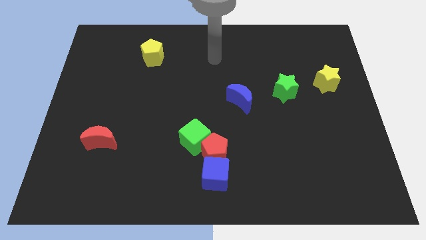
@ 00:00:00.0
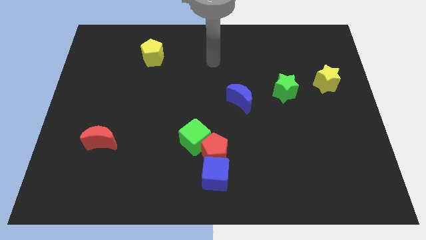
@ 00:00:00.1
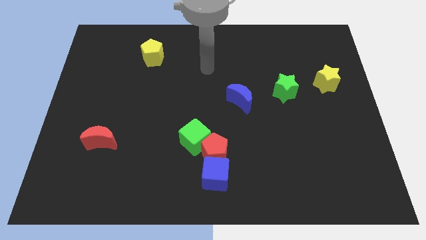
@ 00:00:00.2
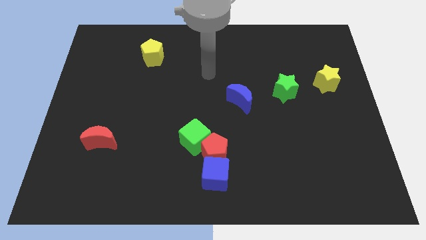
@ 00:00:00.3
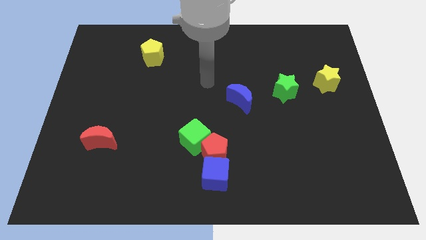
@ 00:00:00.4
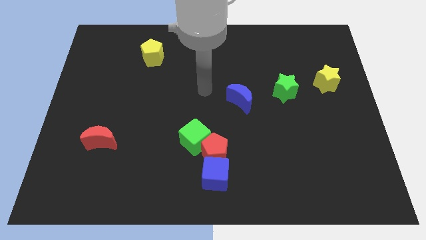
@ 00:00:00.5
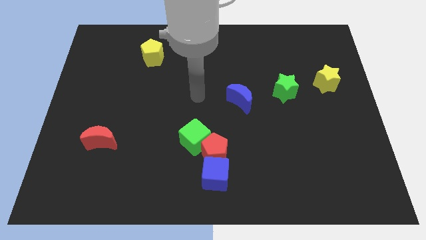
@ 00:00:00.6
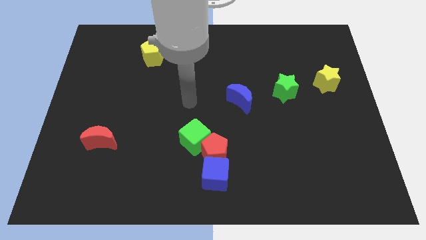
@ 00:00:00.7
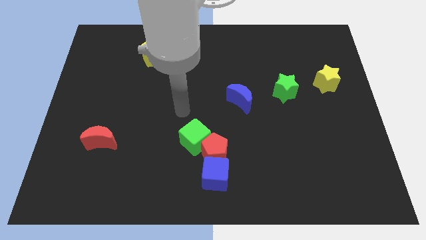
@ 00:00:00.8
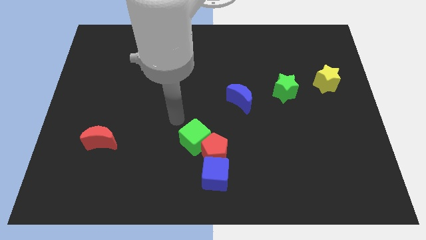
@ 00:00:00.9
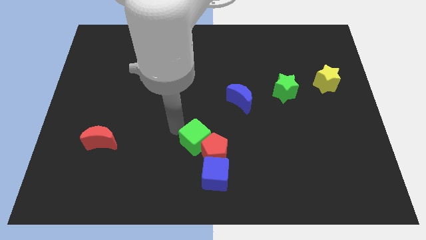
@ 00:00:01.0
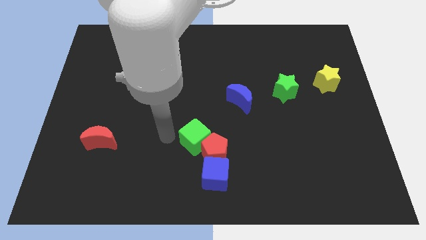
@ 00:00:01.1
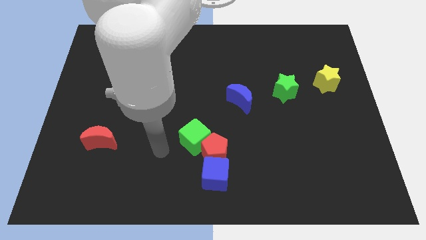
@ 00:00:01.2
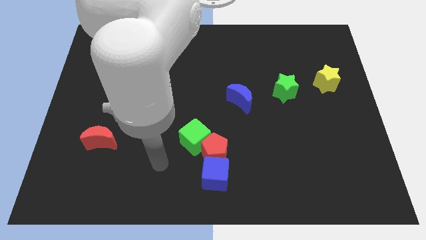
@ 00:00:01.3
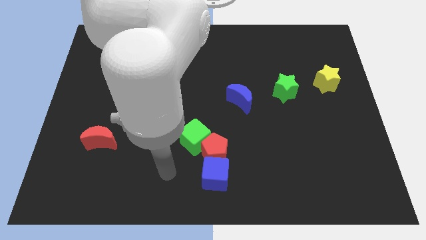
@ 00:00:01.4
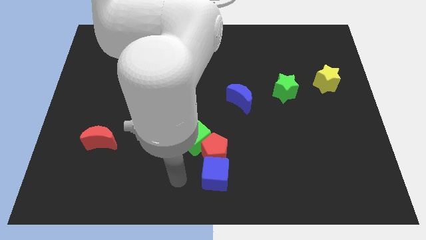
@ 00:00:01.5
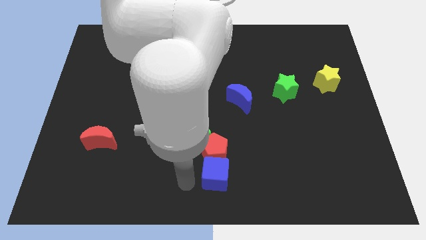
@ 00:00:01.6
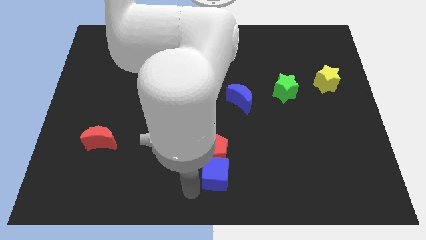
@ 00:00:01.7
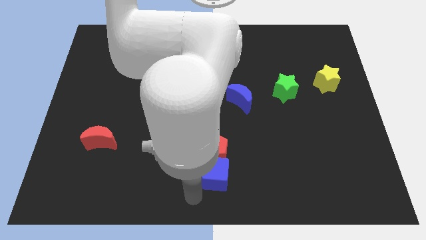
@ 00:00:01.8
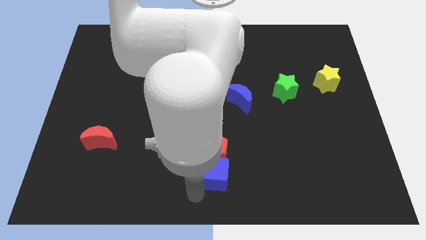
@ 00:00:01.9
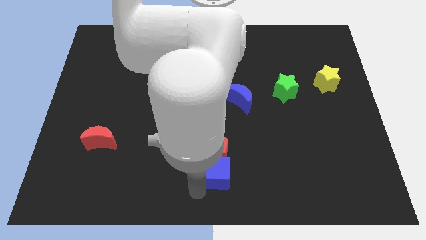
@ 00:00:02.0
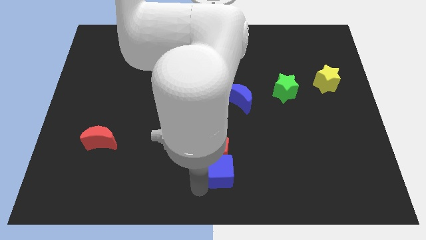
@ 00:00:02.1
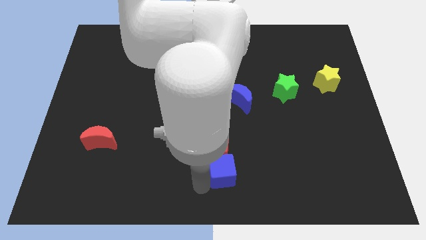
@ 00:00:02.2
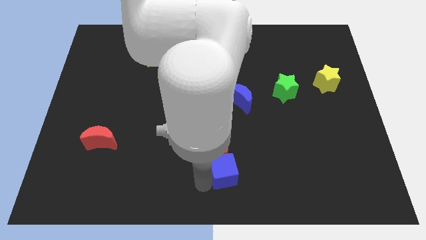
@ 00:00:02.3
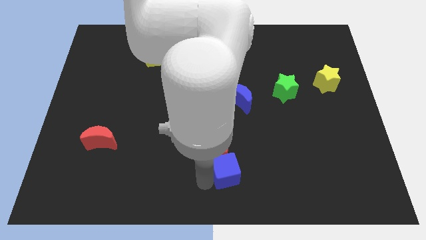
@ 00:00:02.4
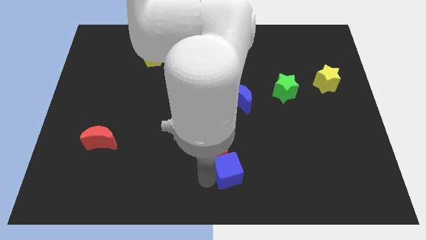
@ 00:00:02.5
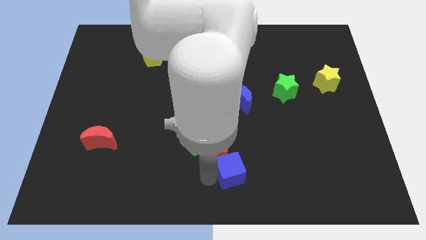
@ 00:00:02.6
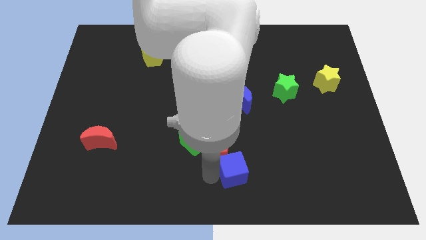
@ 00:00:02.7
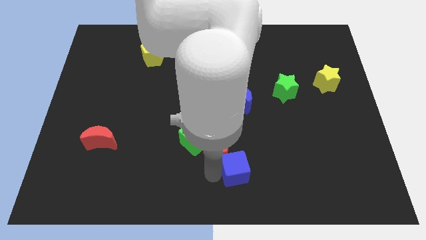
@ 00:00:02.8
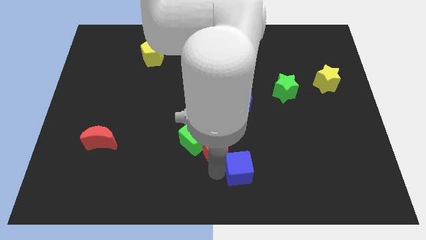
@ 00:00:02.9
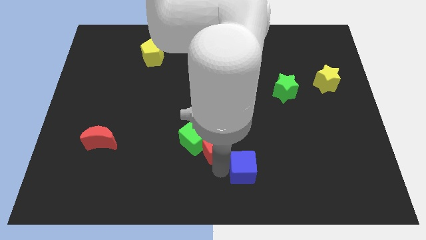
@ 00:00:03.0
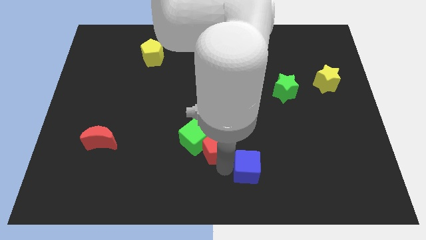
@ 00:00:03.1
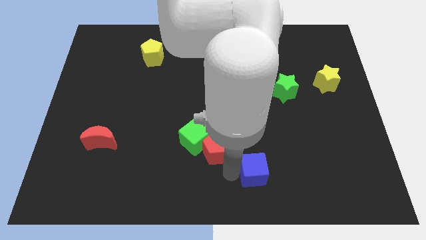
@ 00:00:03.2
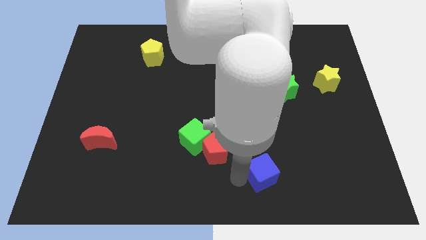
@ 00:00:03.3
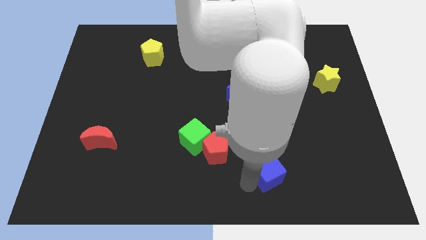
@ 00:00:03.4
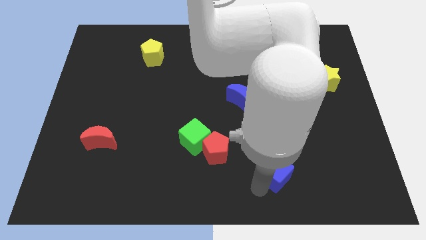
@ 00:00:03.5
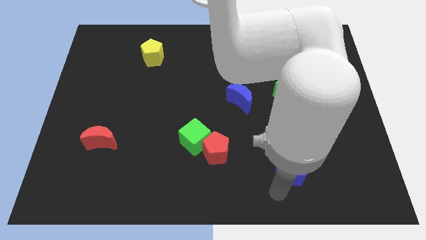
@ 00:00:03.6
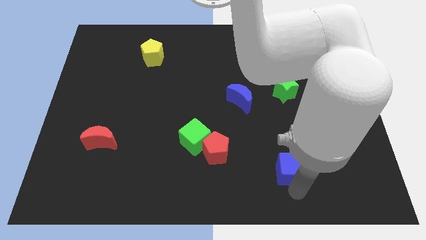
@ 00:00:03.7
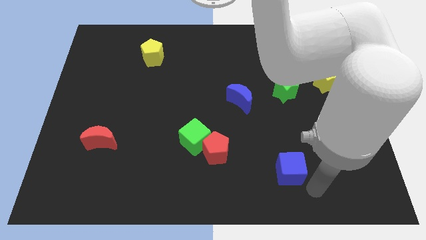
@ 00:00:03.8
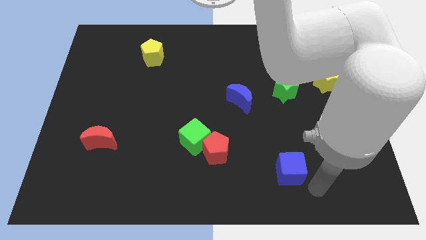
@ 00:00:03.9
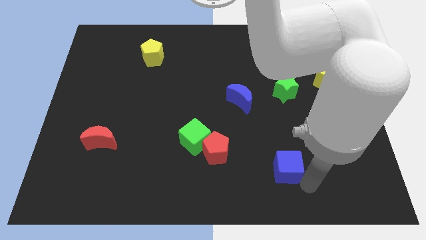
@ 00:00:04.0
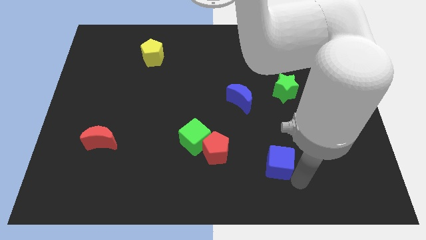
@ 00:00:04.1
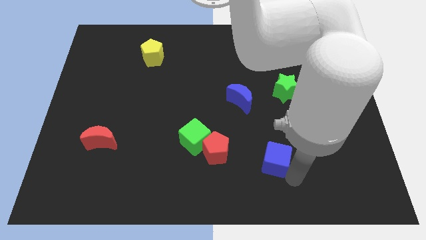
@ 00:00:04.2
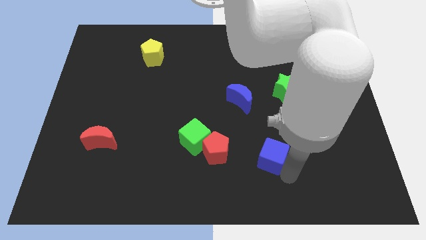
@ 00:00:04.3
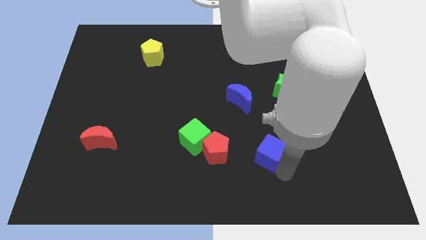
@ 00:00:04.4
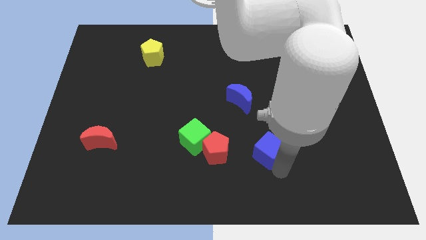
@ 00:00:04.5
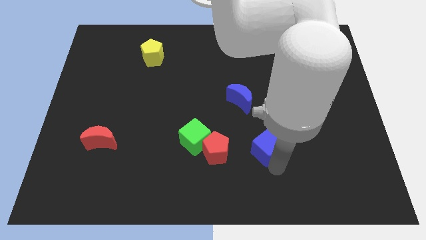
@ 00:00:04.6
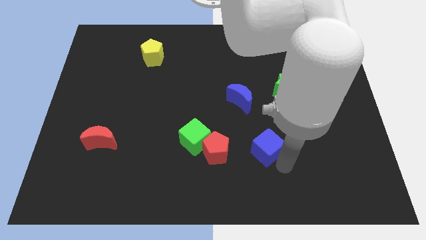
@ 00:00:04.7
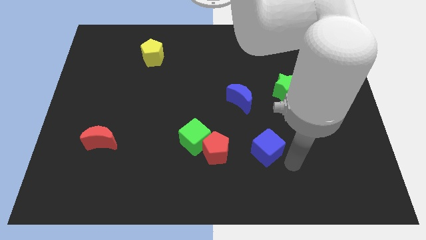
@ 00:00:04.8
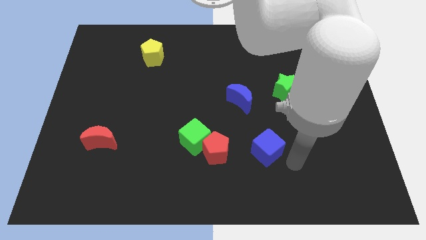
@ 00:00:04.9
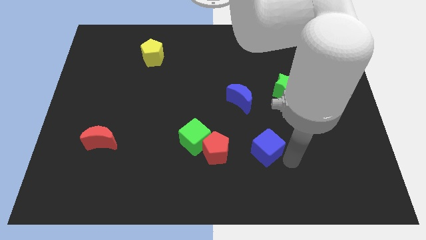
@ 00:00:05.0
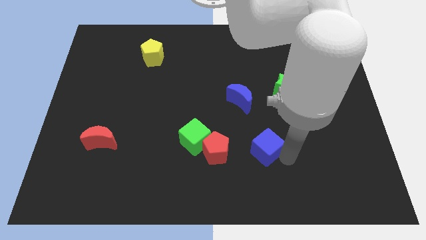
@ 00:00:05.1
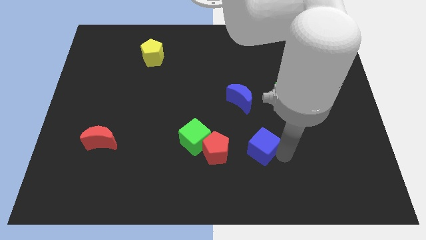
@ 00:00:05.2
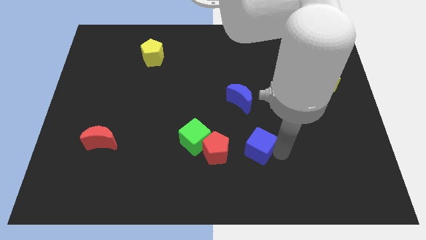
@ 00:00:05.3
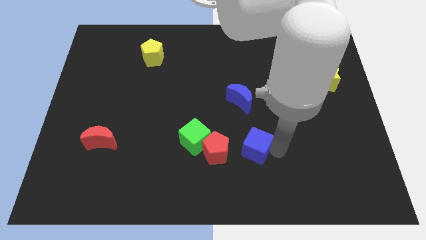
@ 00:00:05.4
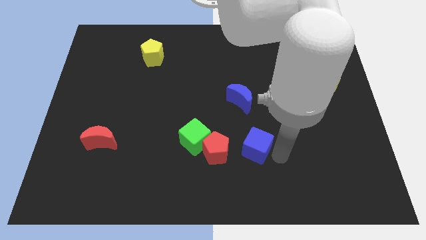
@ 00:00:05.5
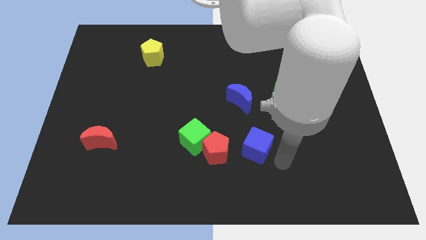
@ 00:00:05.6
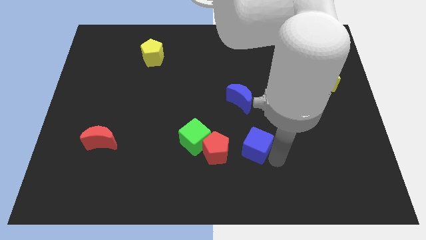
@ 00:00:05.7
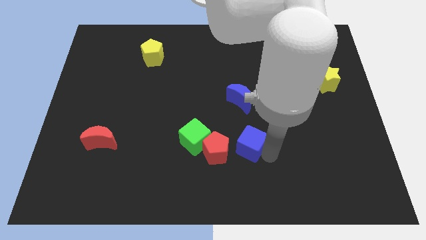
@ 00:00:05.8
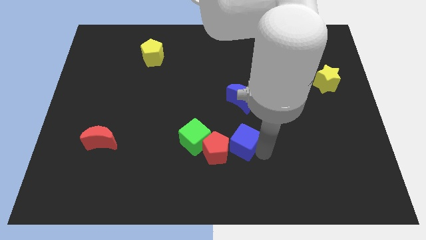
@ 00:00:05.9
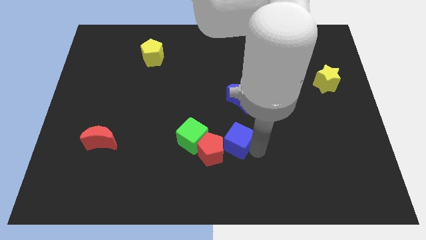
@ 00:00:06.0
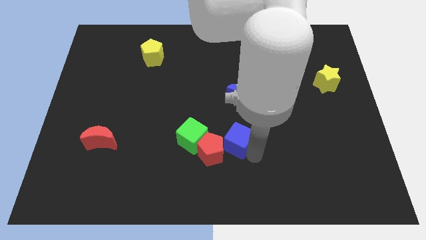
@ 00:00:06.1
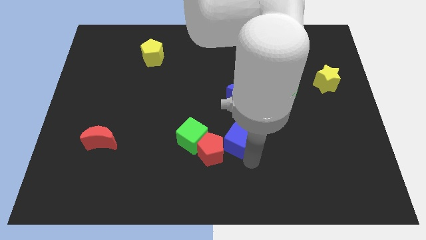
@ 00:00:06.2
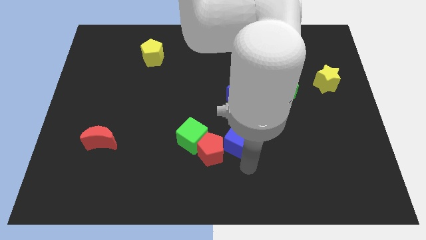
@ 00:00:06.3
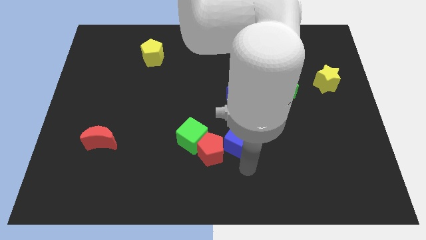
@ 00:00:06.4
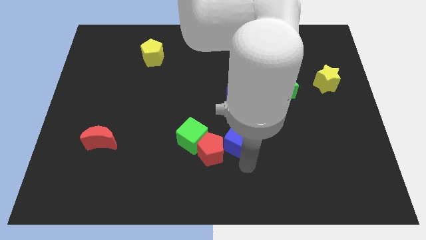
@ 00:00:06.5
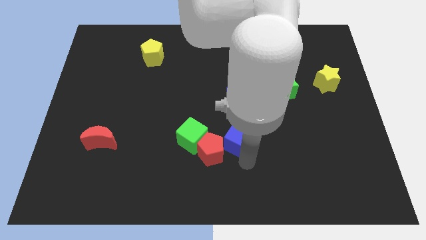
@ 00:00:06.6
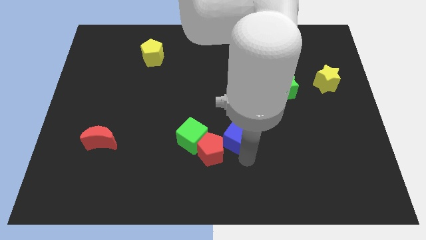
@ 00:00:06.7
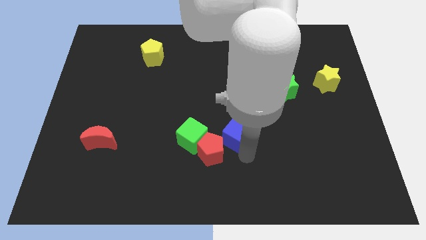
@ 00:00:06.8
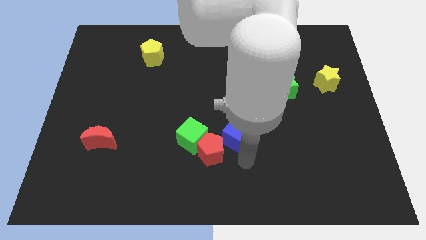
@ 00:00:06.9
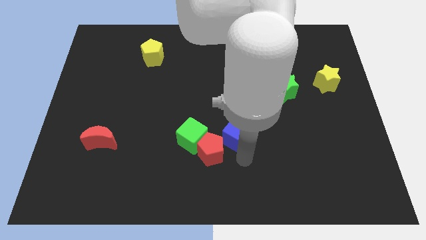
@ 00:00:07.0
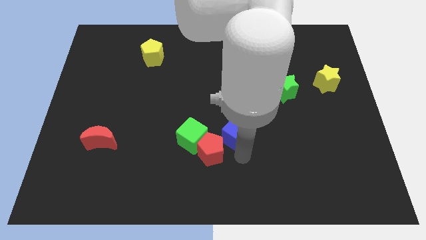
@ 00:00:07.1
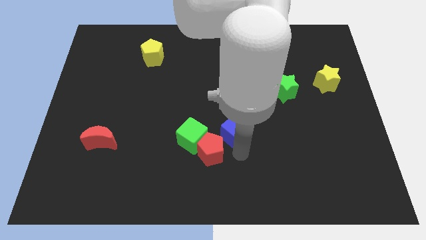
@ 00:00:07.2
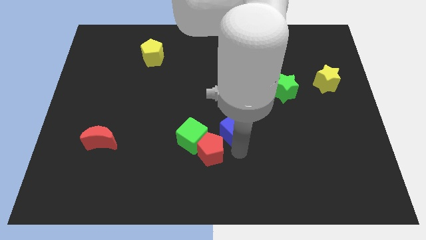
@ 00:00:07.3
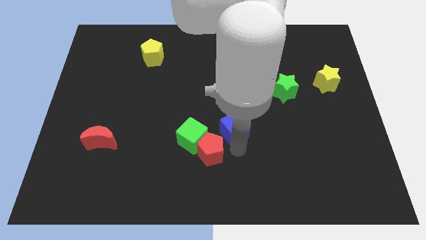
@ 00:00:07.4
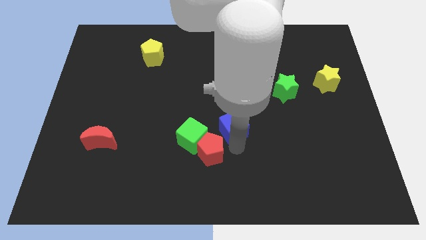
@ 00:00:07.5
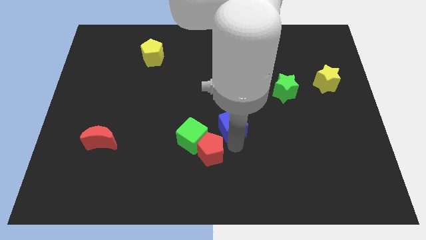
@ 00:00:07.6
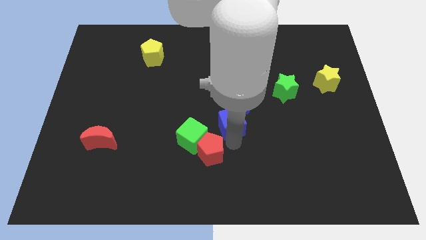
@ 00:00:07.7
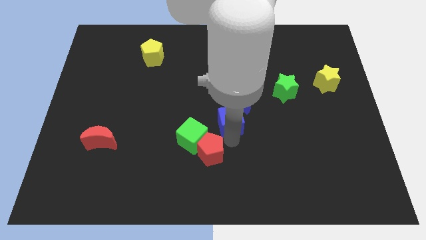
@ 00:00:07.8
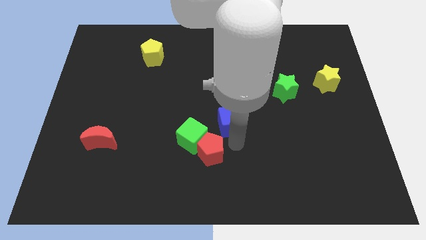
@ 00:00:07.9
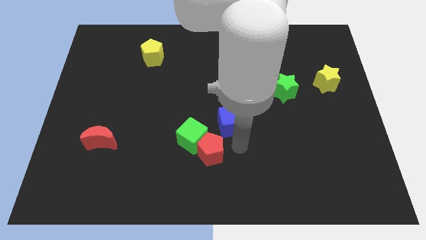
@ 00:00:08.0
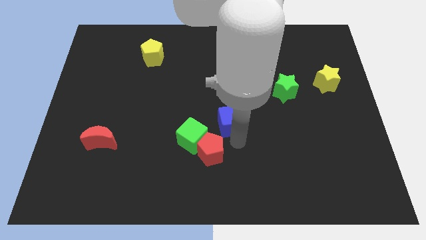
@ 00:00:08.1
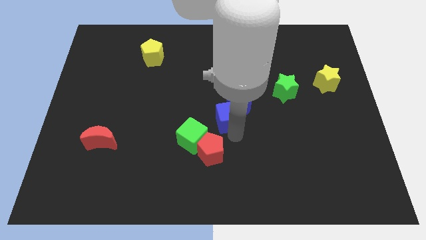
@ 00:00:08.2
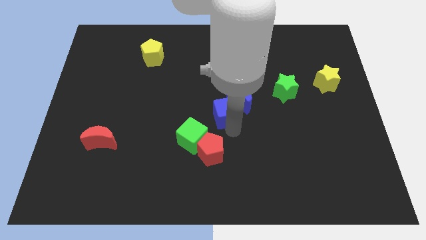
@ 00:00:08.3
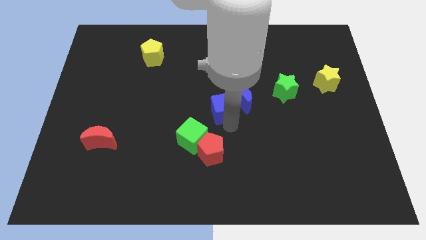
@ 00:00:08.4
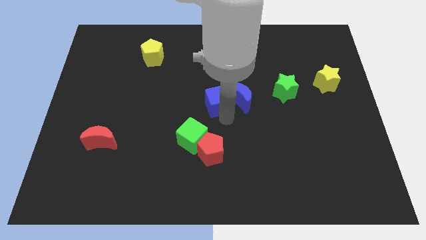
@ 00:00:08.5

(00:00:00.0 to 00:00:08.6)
slide the blue cube to the top left of the blue moon
